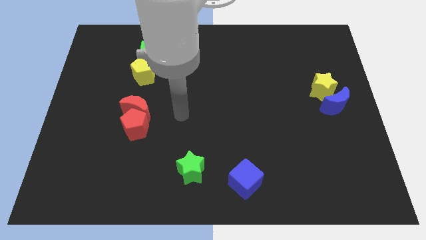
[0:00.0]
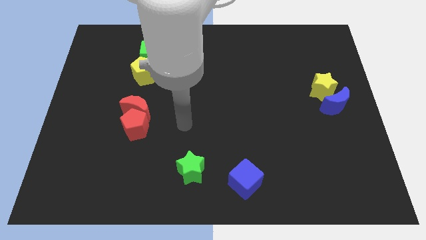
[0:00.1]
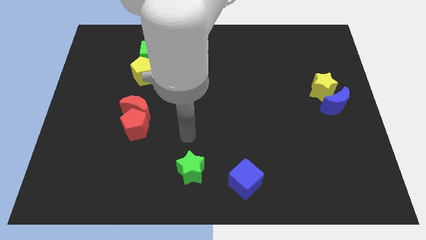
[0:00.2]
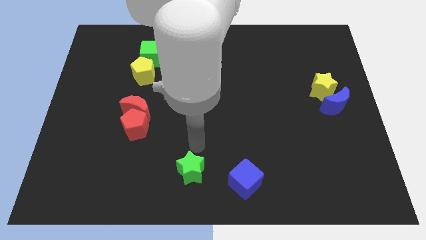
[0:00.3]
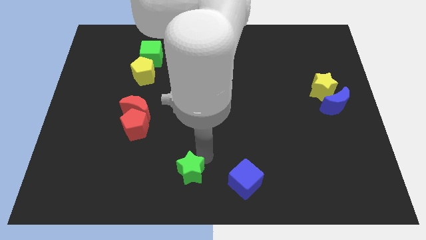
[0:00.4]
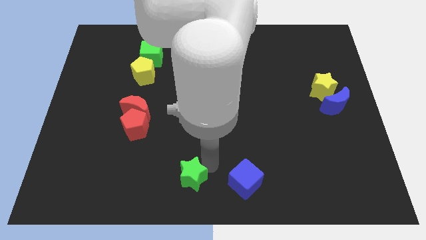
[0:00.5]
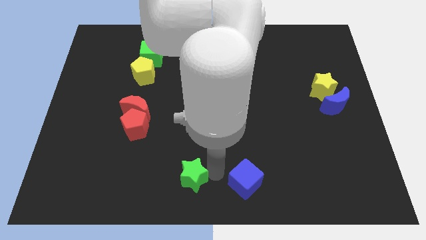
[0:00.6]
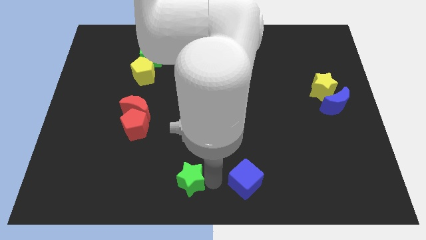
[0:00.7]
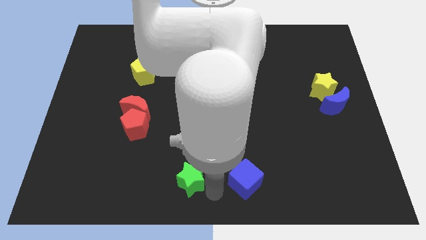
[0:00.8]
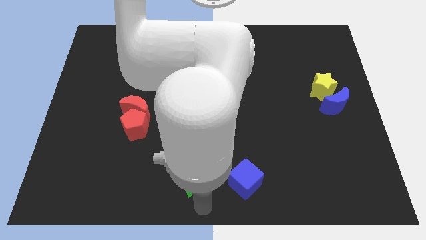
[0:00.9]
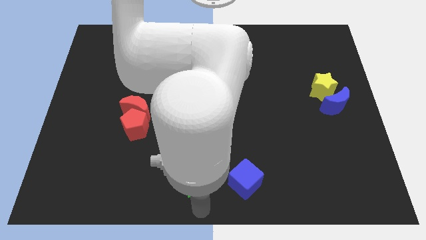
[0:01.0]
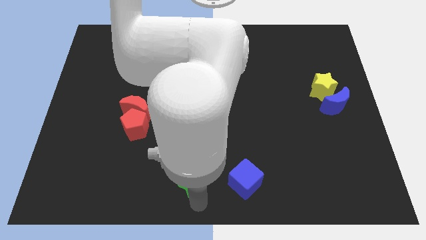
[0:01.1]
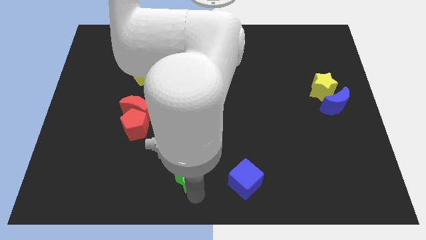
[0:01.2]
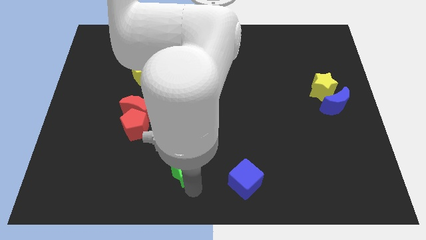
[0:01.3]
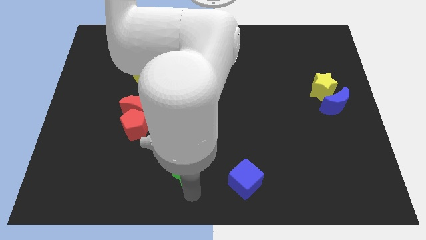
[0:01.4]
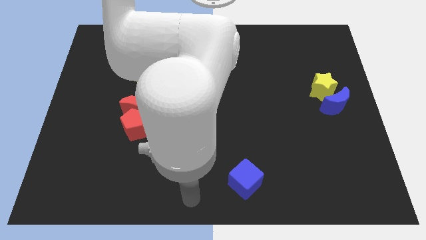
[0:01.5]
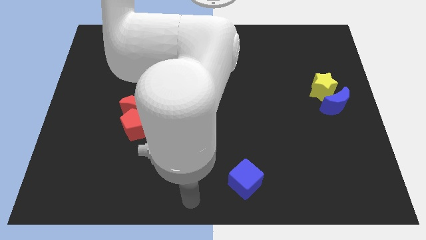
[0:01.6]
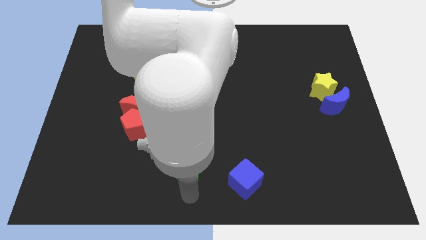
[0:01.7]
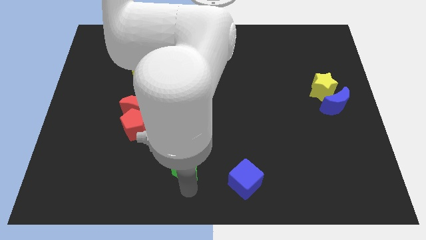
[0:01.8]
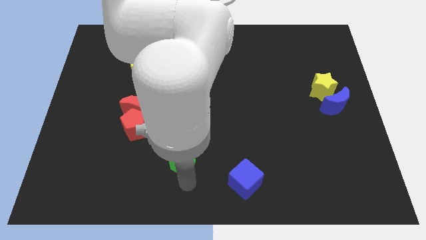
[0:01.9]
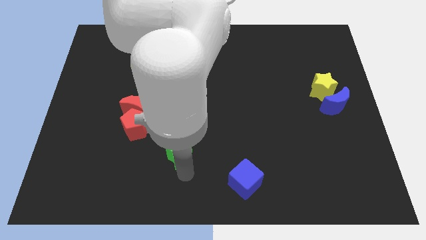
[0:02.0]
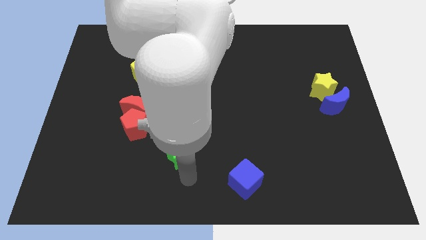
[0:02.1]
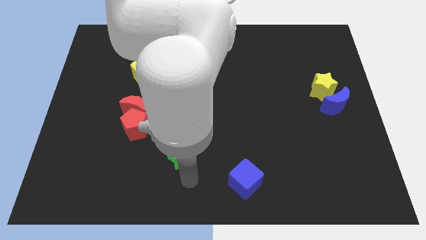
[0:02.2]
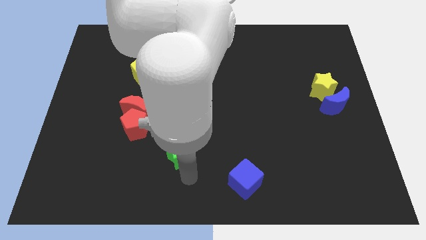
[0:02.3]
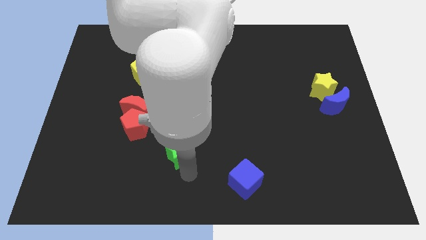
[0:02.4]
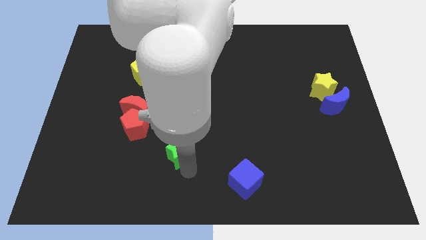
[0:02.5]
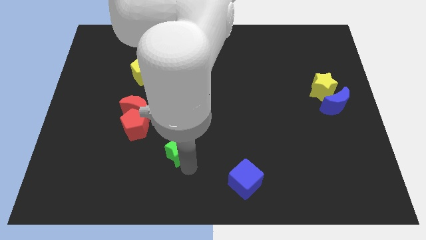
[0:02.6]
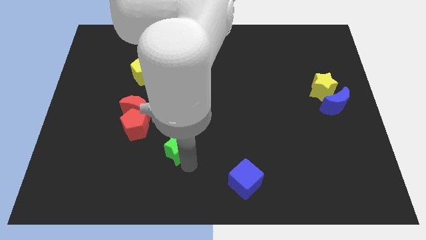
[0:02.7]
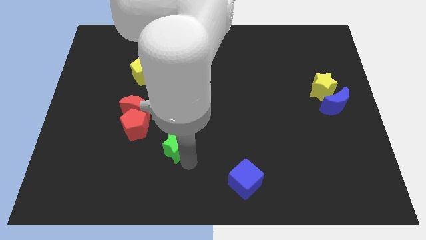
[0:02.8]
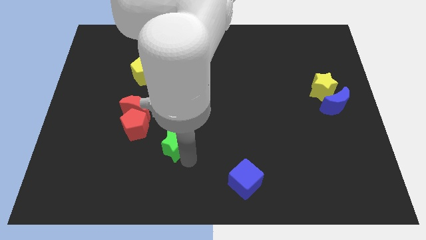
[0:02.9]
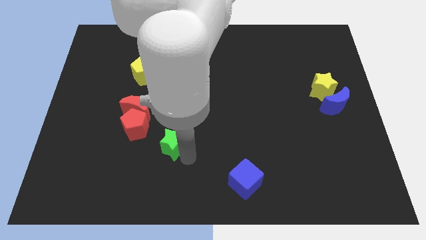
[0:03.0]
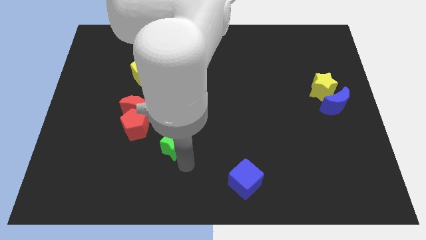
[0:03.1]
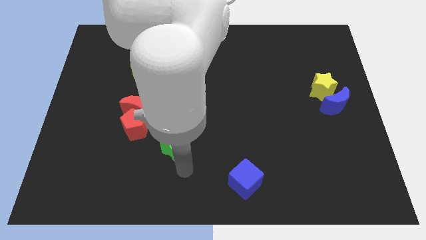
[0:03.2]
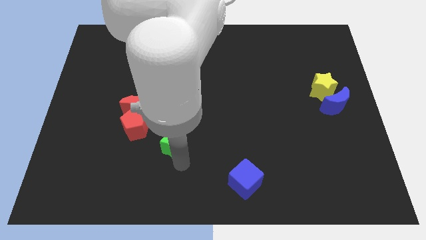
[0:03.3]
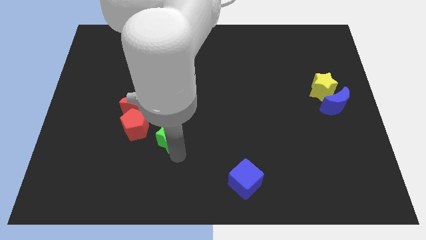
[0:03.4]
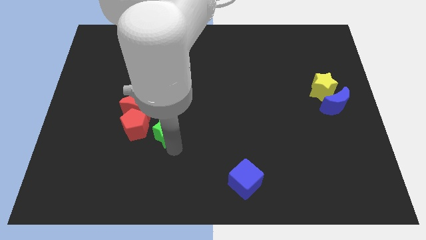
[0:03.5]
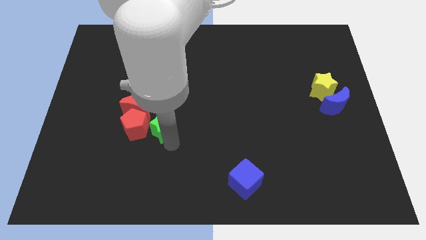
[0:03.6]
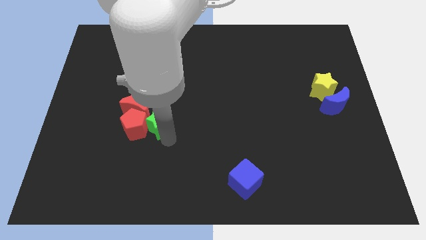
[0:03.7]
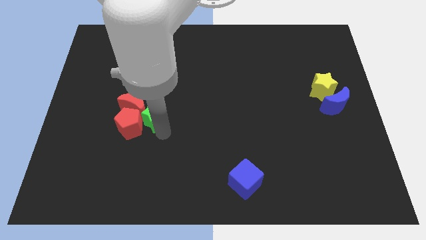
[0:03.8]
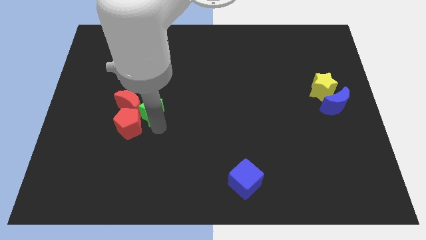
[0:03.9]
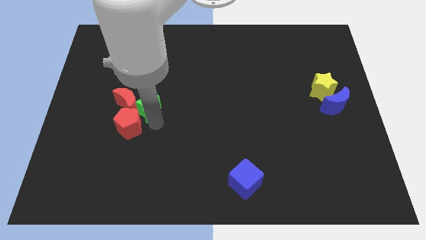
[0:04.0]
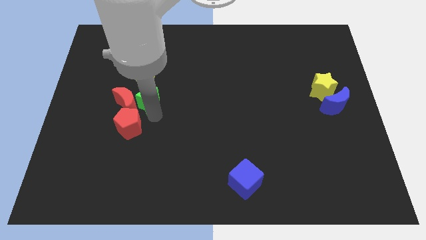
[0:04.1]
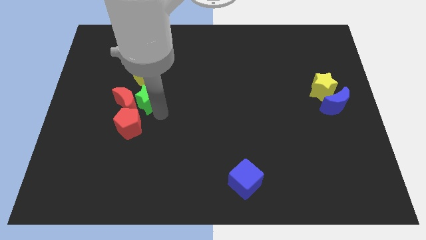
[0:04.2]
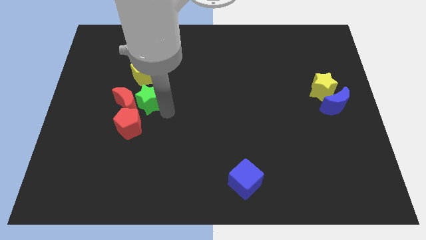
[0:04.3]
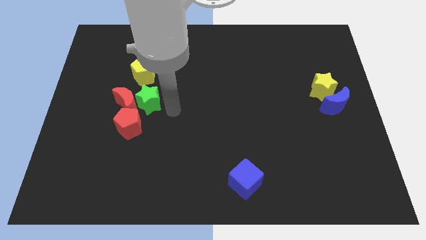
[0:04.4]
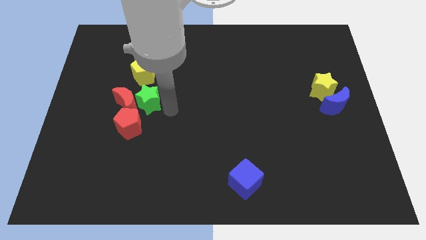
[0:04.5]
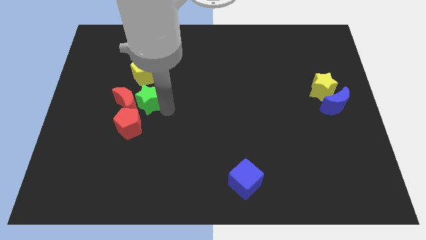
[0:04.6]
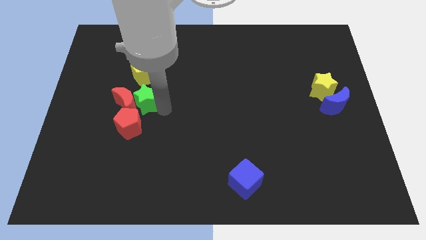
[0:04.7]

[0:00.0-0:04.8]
slide the green star upwards and then left

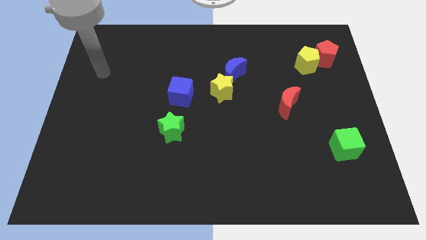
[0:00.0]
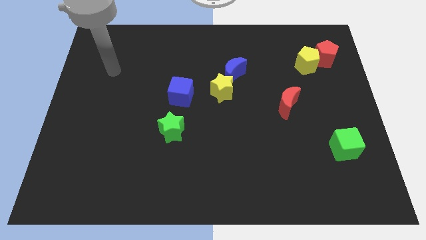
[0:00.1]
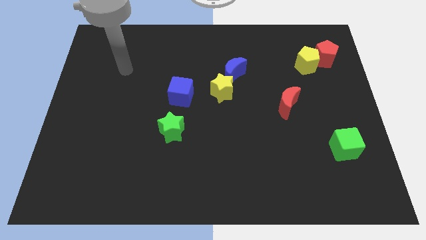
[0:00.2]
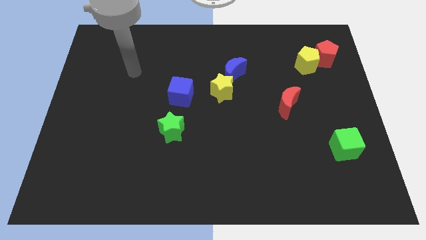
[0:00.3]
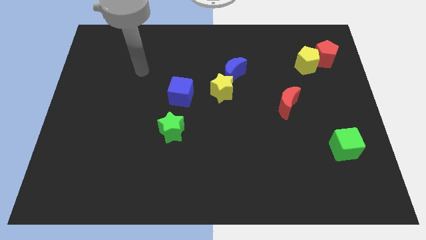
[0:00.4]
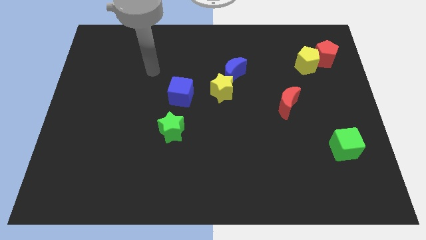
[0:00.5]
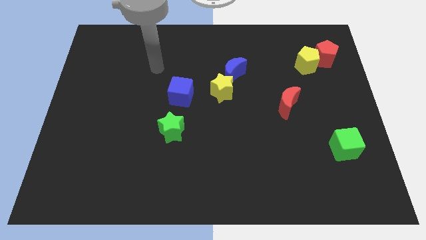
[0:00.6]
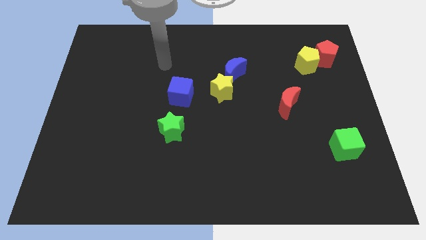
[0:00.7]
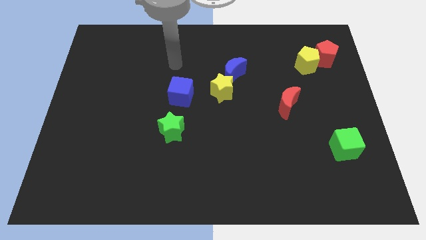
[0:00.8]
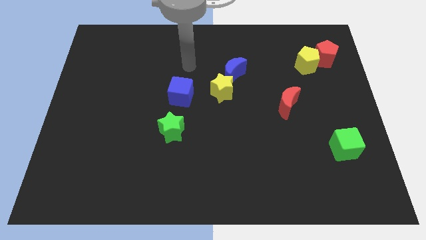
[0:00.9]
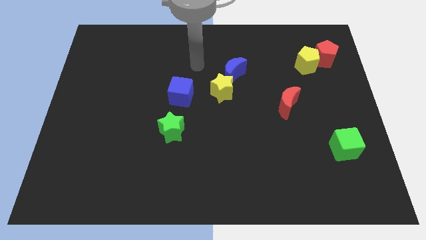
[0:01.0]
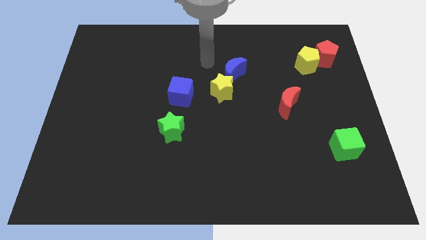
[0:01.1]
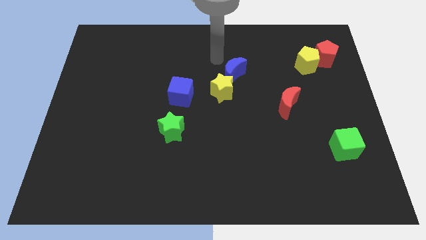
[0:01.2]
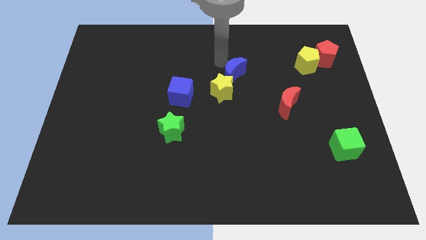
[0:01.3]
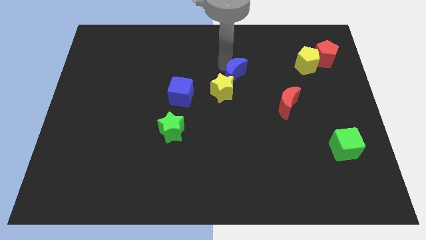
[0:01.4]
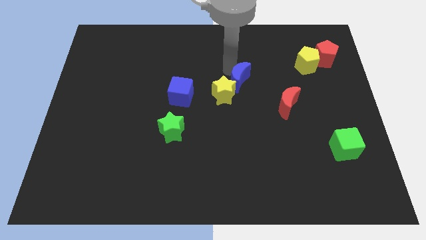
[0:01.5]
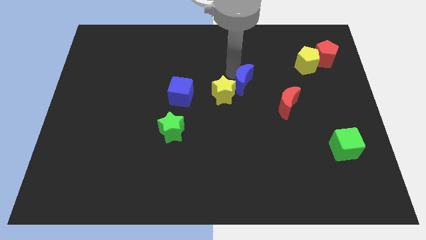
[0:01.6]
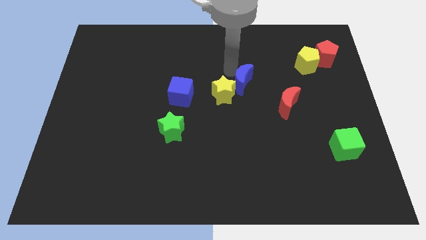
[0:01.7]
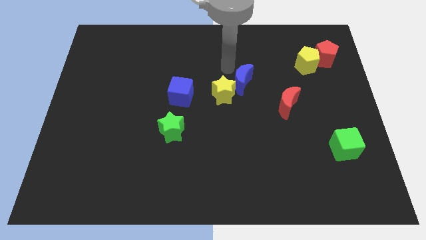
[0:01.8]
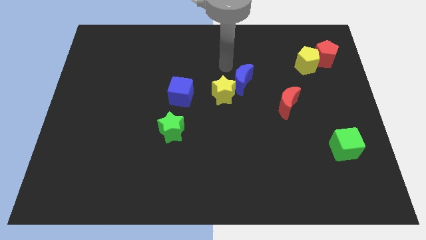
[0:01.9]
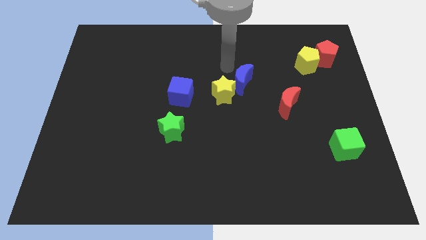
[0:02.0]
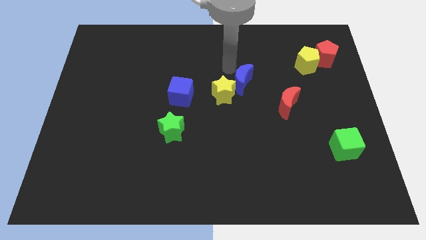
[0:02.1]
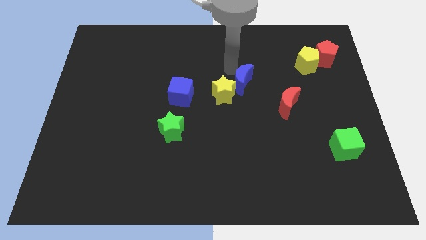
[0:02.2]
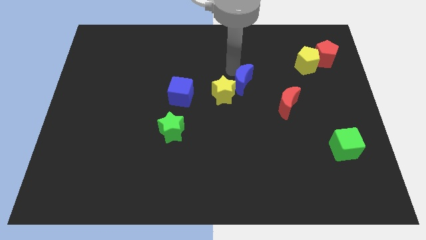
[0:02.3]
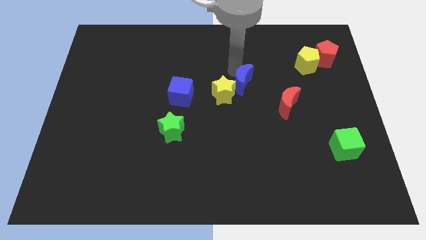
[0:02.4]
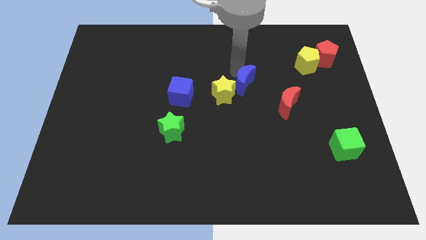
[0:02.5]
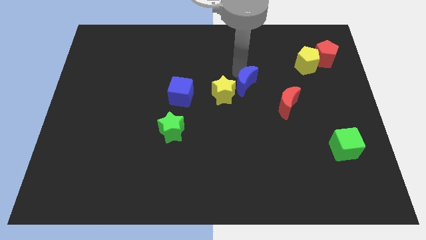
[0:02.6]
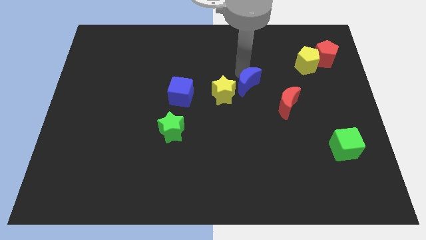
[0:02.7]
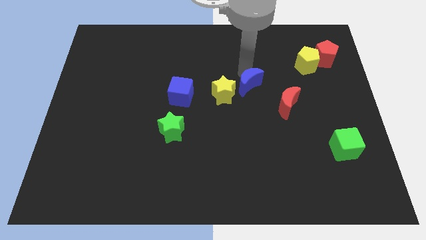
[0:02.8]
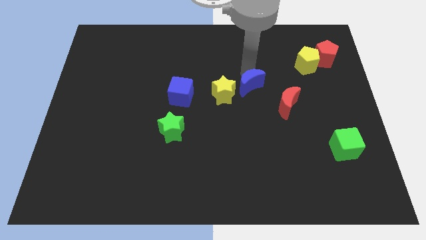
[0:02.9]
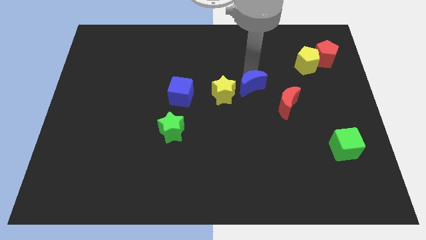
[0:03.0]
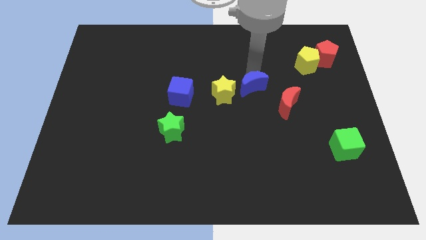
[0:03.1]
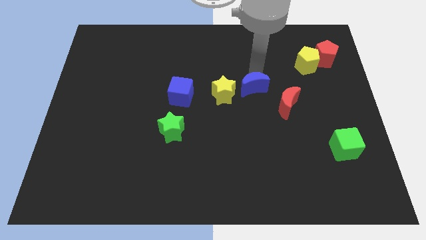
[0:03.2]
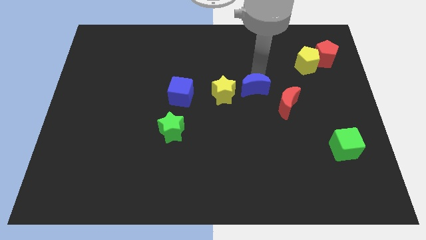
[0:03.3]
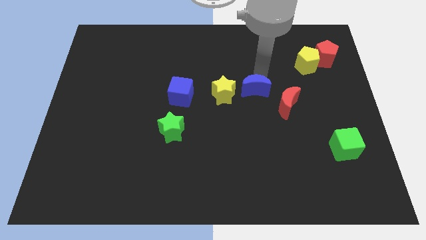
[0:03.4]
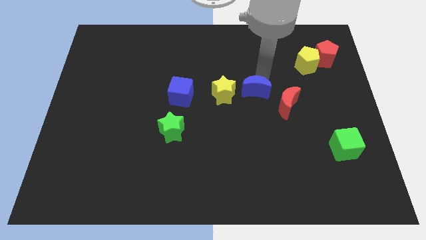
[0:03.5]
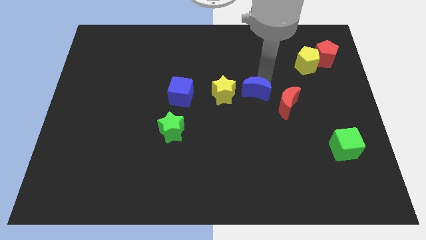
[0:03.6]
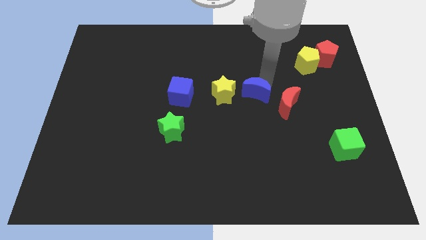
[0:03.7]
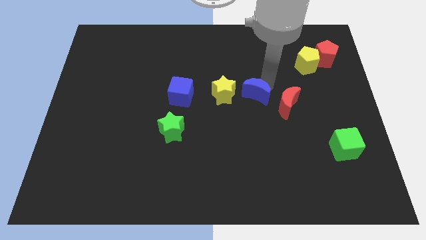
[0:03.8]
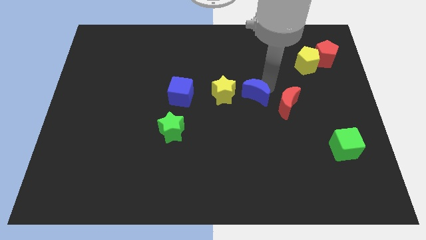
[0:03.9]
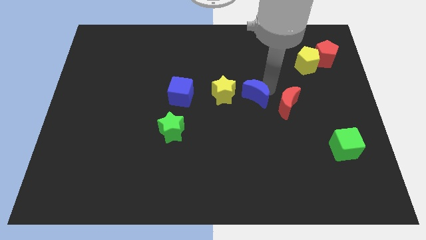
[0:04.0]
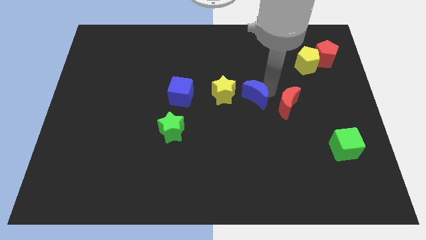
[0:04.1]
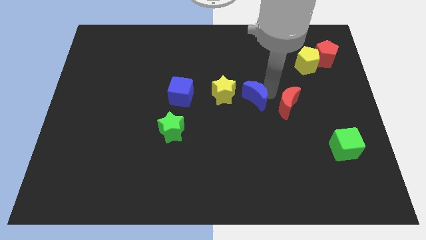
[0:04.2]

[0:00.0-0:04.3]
slightly slide the blue moon down
